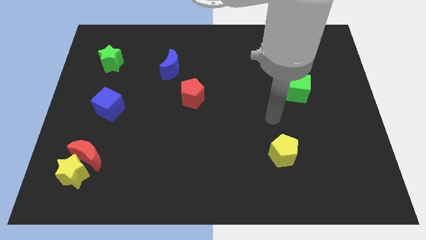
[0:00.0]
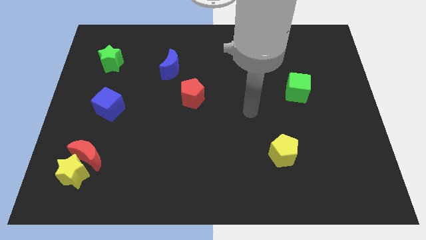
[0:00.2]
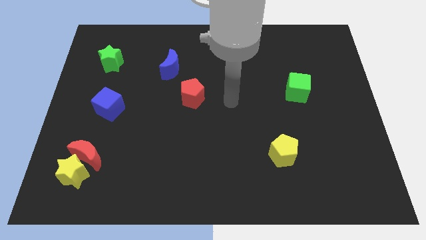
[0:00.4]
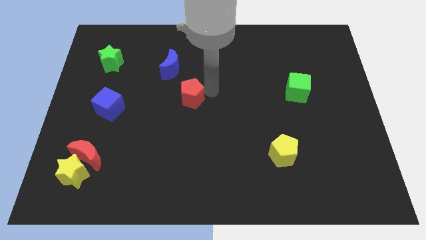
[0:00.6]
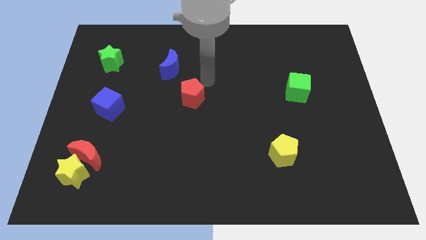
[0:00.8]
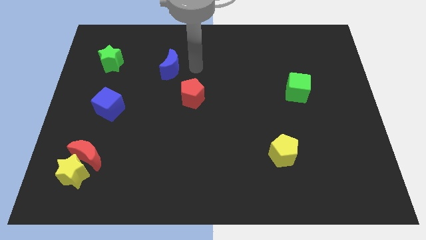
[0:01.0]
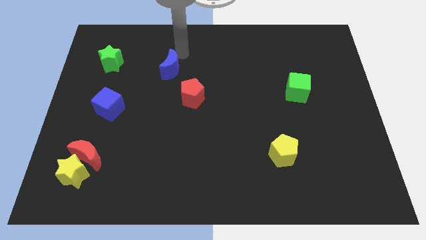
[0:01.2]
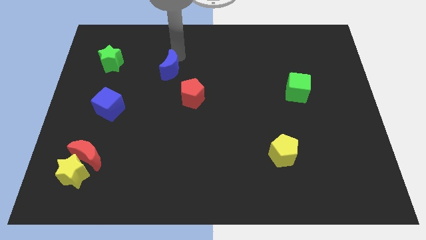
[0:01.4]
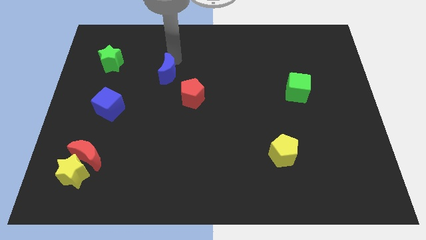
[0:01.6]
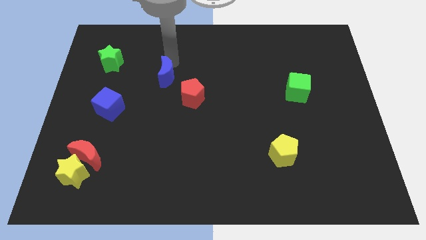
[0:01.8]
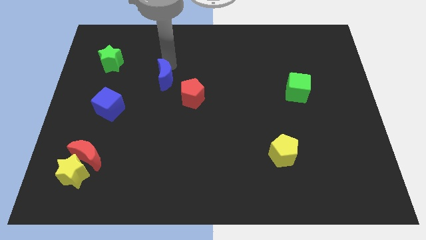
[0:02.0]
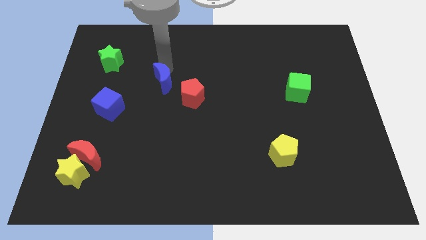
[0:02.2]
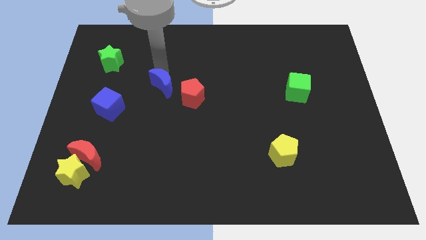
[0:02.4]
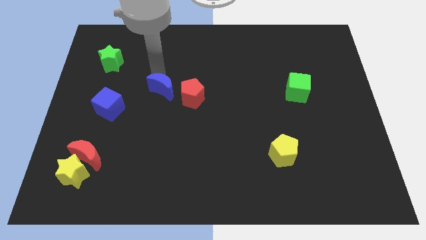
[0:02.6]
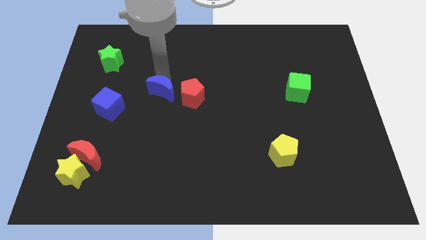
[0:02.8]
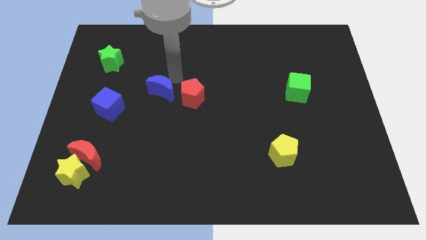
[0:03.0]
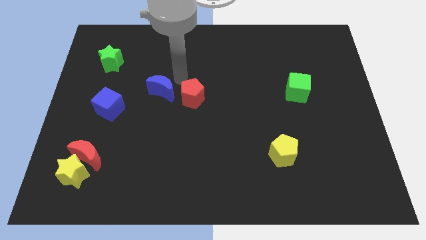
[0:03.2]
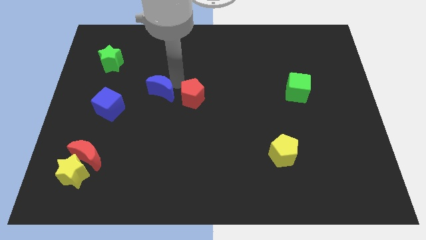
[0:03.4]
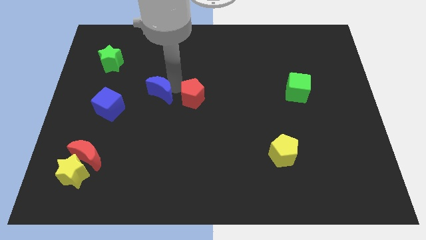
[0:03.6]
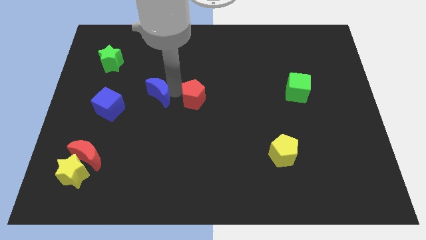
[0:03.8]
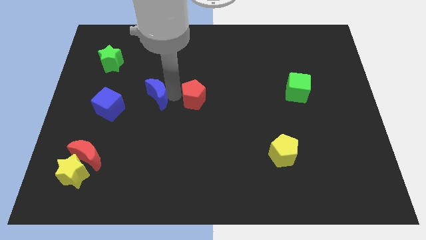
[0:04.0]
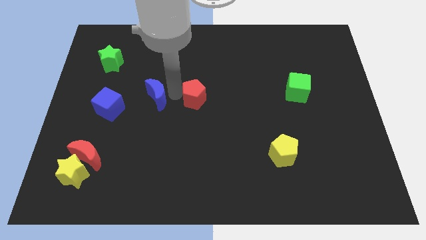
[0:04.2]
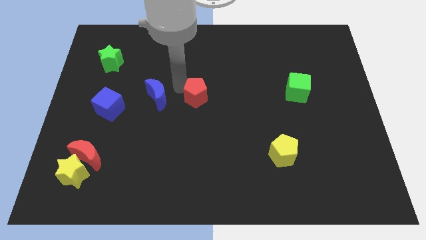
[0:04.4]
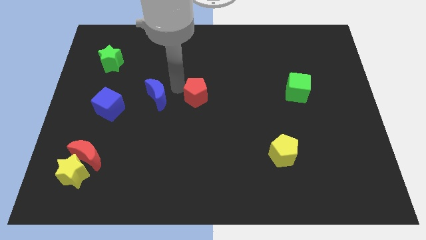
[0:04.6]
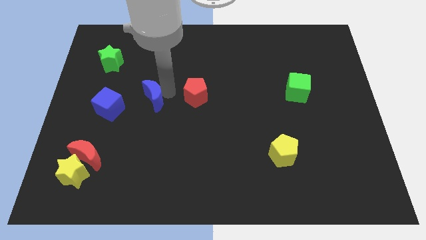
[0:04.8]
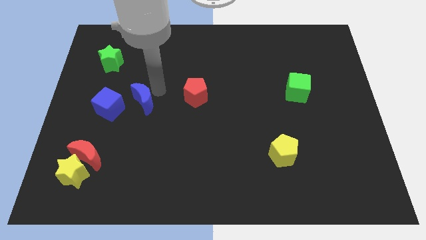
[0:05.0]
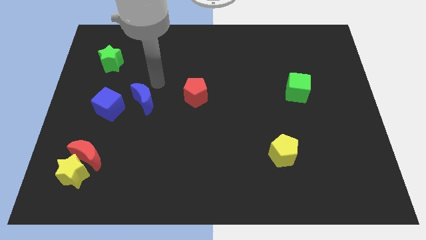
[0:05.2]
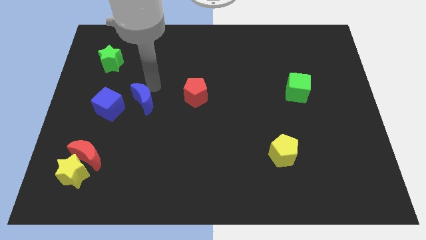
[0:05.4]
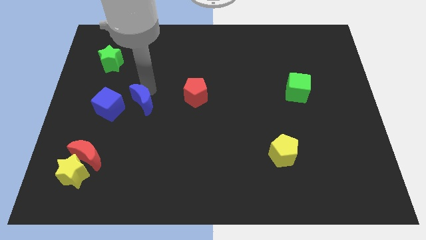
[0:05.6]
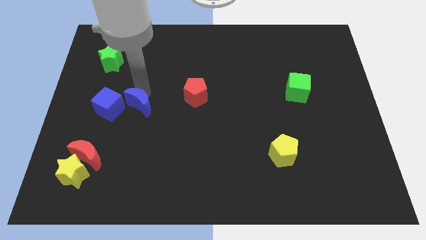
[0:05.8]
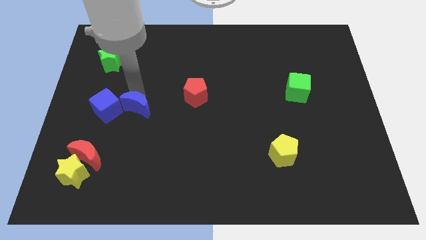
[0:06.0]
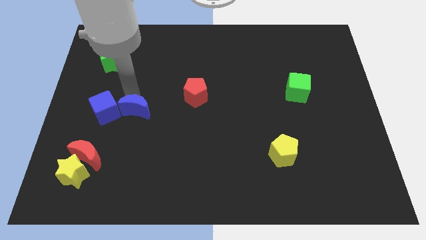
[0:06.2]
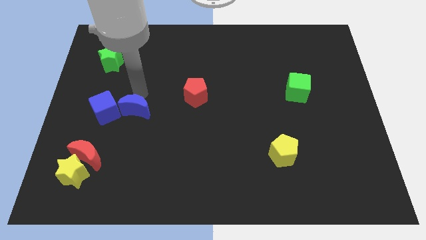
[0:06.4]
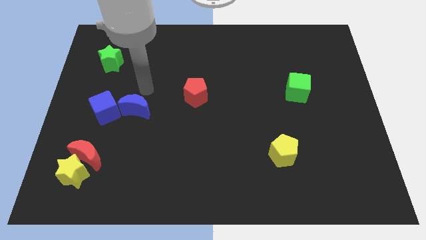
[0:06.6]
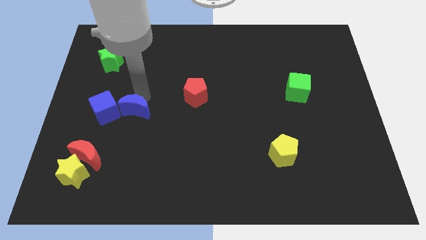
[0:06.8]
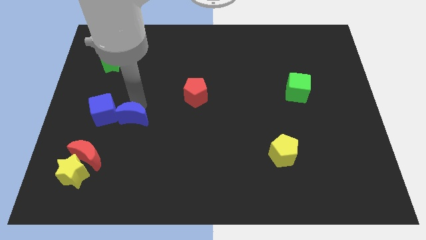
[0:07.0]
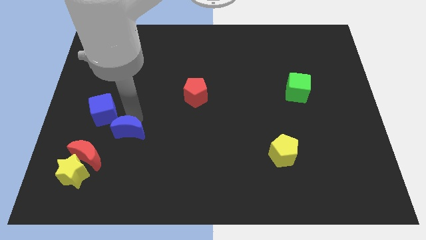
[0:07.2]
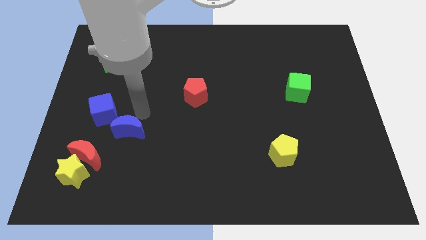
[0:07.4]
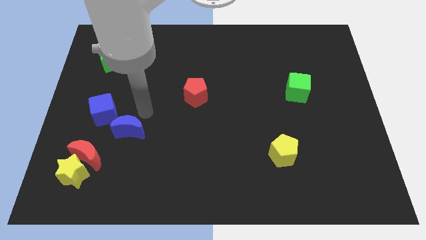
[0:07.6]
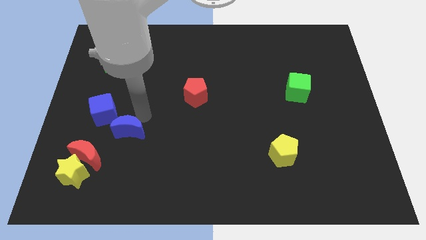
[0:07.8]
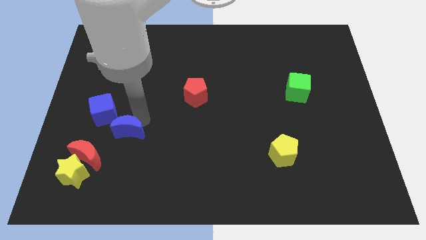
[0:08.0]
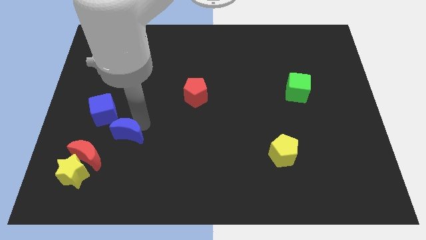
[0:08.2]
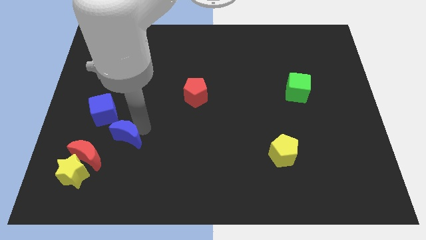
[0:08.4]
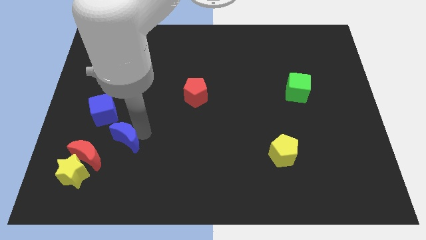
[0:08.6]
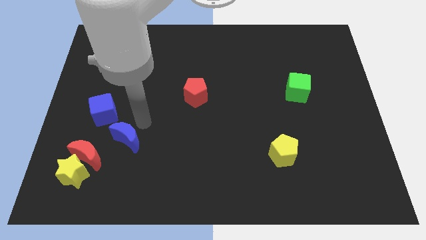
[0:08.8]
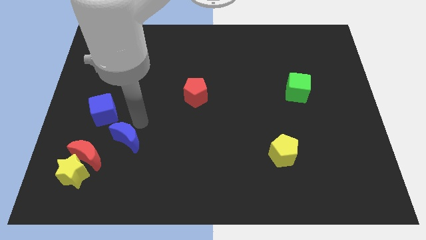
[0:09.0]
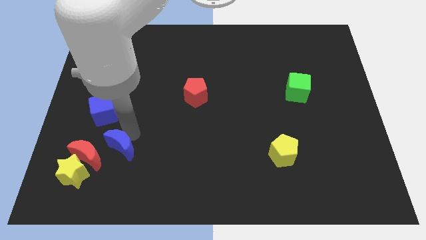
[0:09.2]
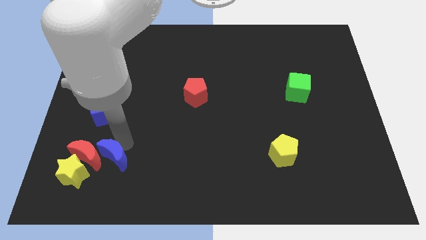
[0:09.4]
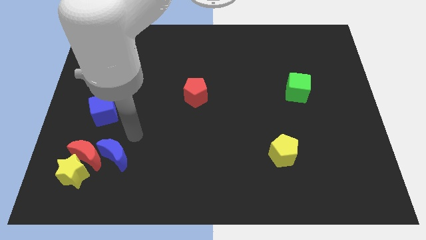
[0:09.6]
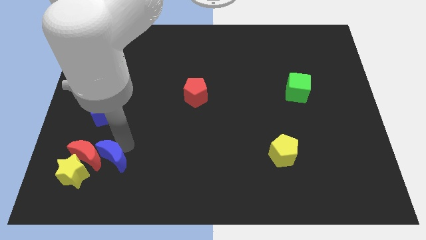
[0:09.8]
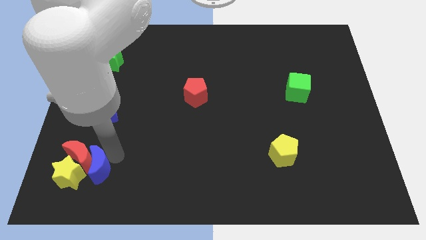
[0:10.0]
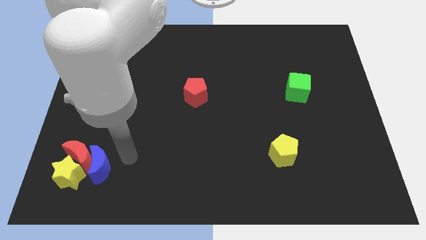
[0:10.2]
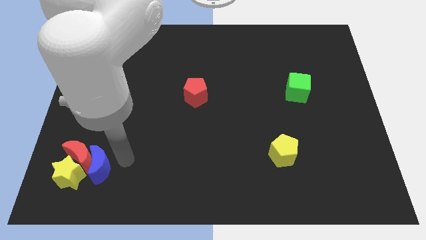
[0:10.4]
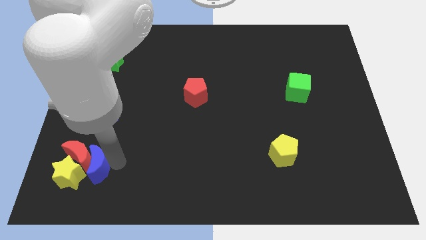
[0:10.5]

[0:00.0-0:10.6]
push the blue moon close to the yellow star

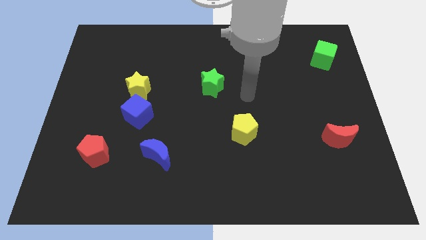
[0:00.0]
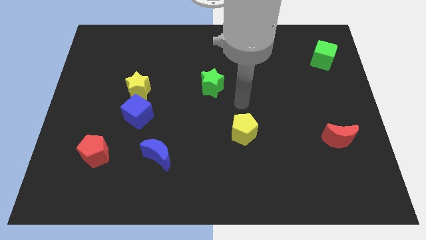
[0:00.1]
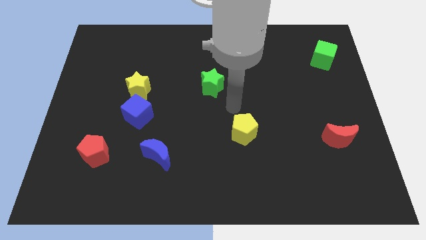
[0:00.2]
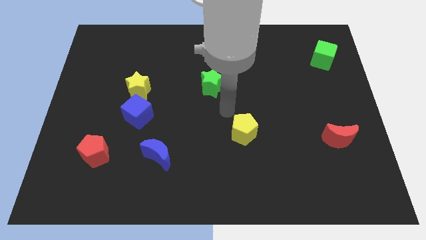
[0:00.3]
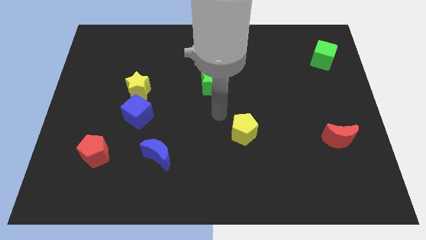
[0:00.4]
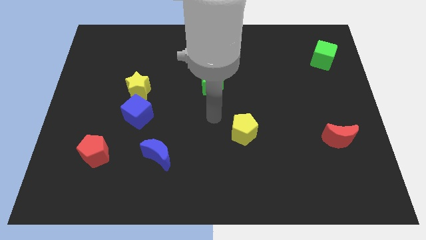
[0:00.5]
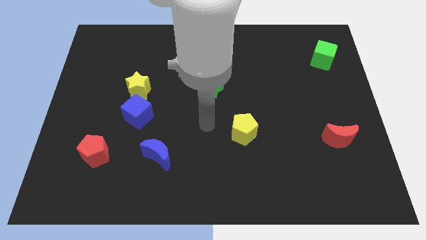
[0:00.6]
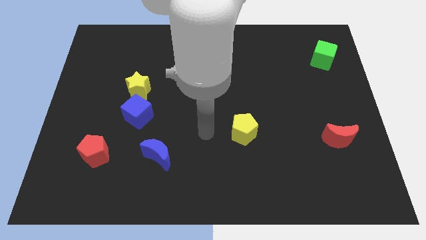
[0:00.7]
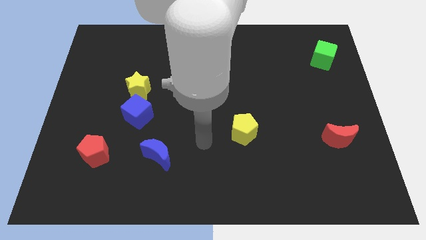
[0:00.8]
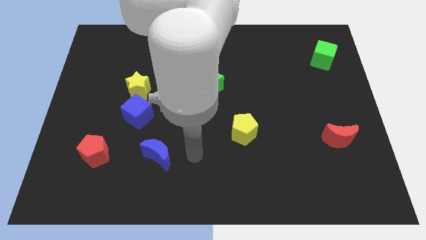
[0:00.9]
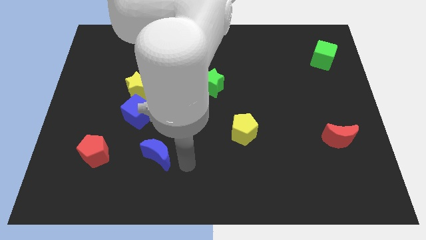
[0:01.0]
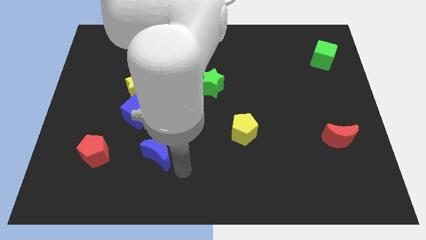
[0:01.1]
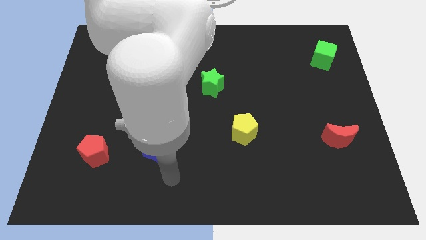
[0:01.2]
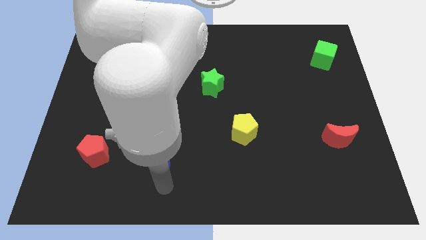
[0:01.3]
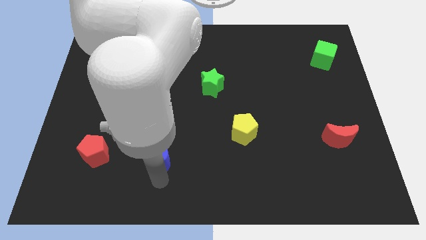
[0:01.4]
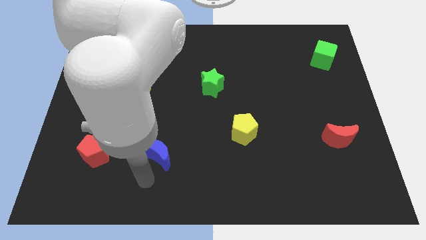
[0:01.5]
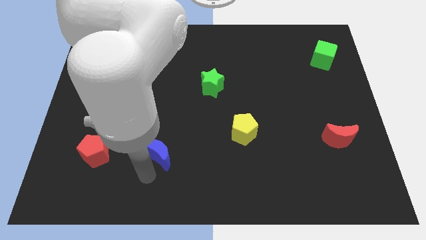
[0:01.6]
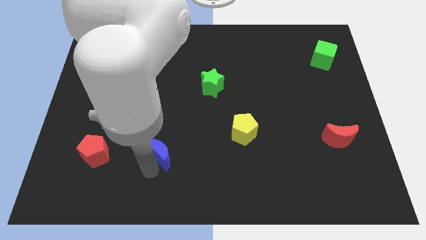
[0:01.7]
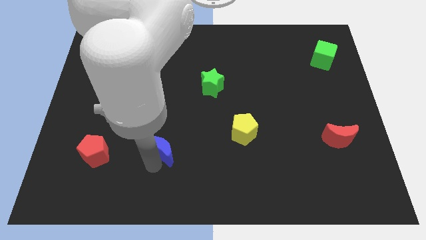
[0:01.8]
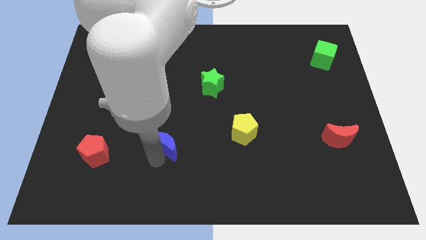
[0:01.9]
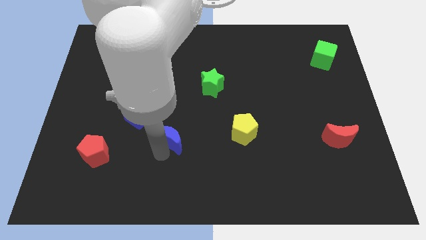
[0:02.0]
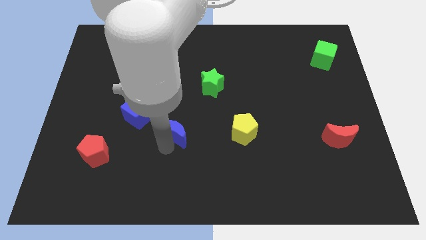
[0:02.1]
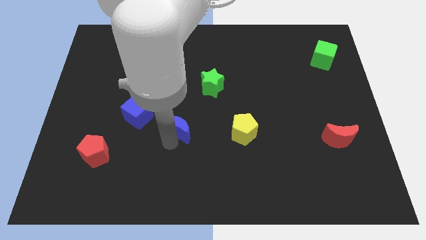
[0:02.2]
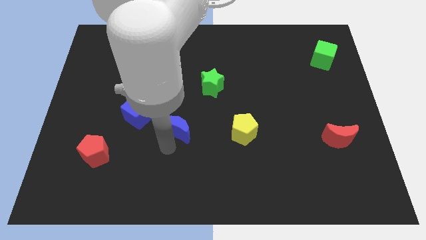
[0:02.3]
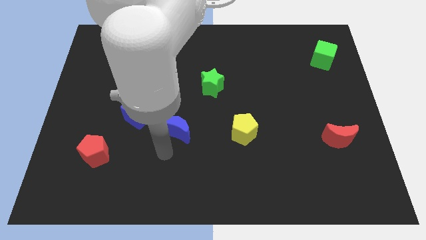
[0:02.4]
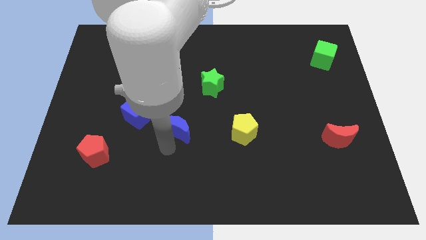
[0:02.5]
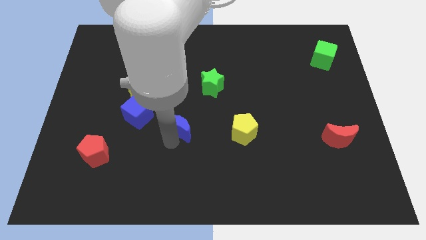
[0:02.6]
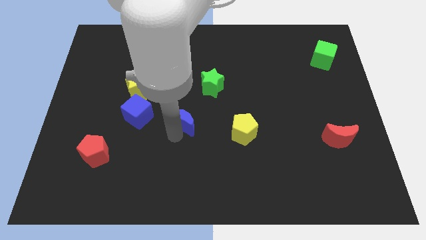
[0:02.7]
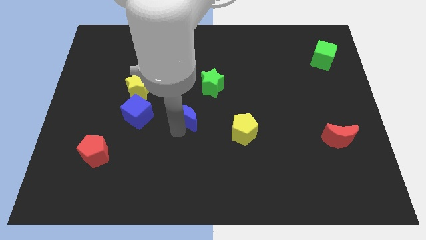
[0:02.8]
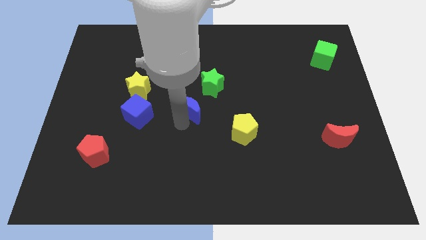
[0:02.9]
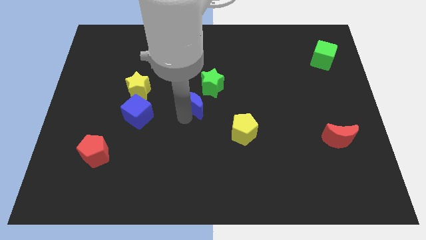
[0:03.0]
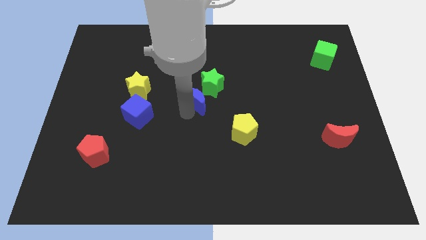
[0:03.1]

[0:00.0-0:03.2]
push the blue moon to the green star
